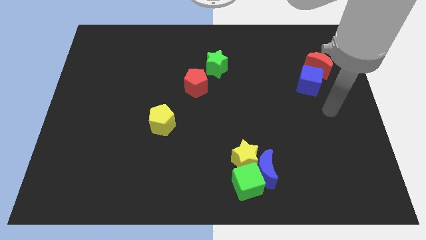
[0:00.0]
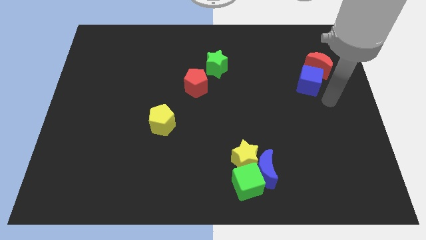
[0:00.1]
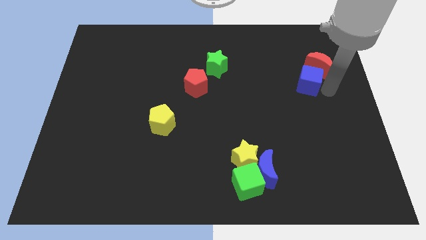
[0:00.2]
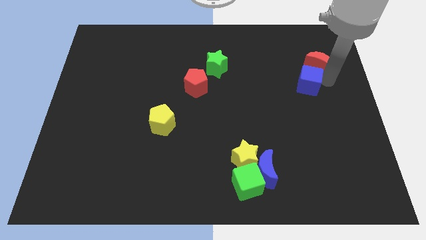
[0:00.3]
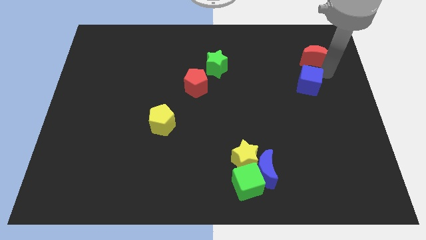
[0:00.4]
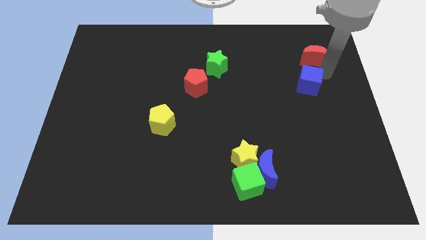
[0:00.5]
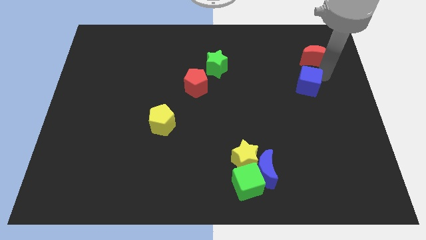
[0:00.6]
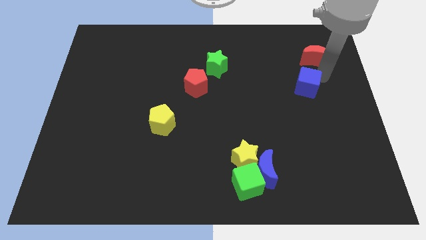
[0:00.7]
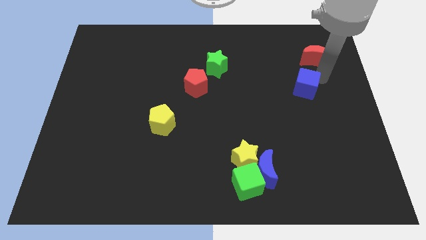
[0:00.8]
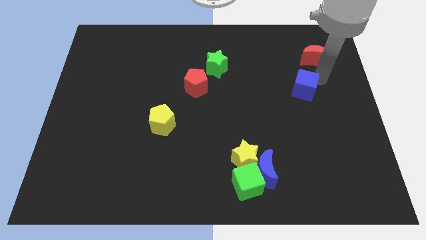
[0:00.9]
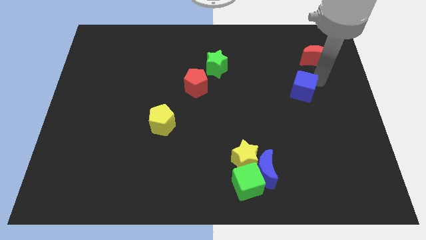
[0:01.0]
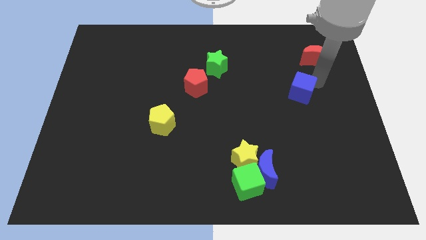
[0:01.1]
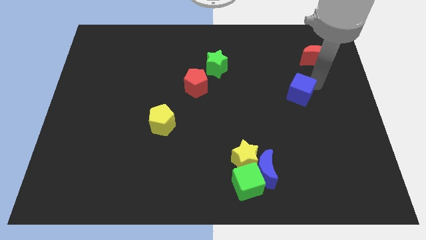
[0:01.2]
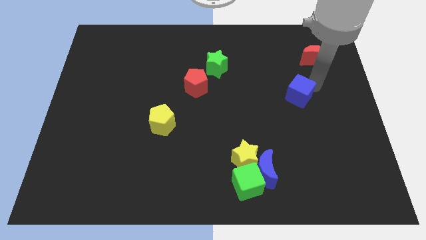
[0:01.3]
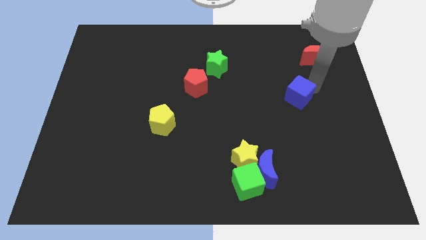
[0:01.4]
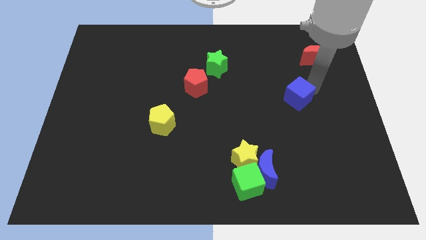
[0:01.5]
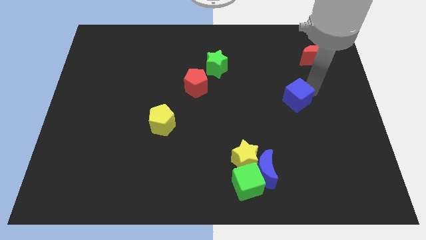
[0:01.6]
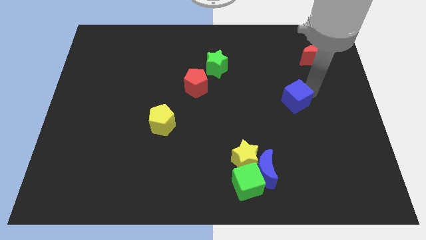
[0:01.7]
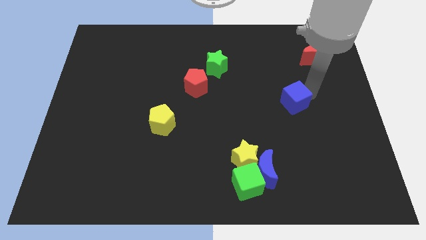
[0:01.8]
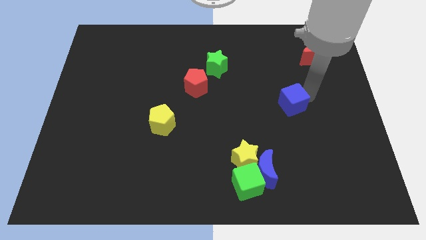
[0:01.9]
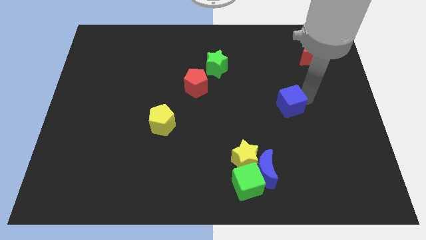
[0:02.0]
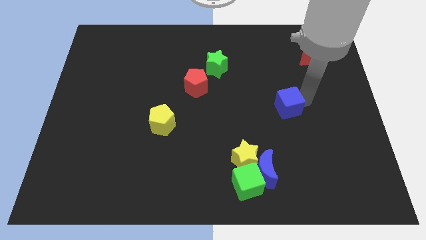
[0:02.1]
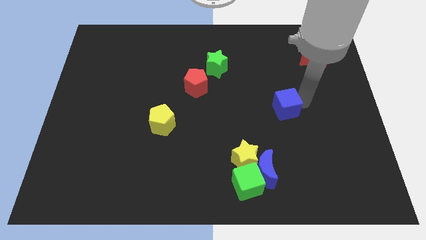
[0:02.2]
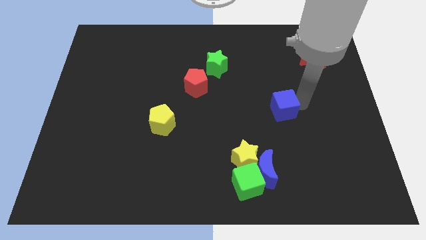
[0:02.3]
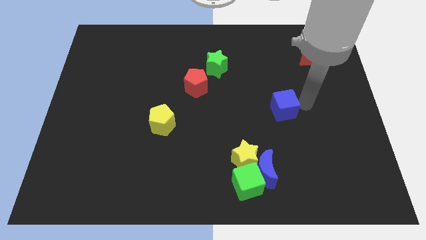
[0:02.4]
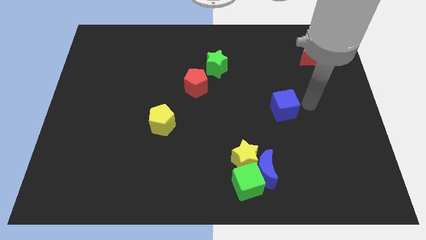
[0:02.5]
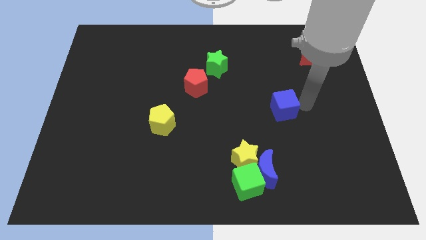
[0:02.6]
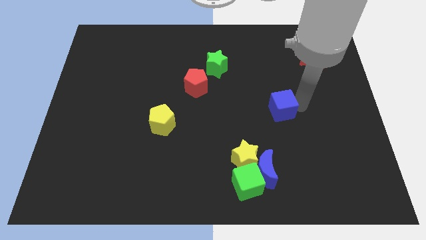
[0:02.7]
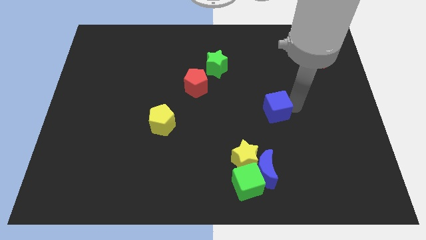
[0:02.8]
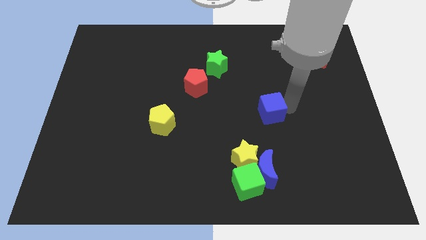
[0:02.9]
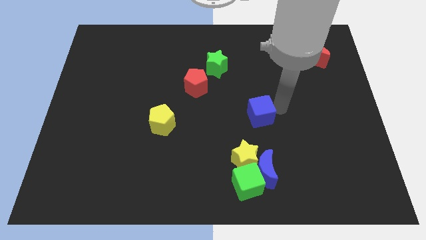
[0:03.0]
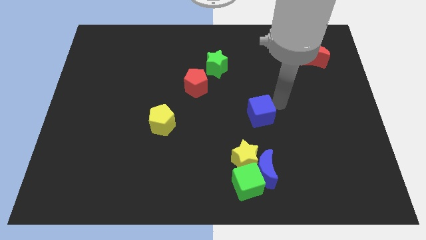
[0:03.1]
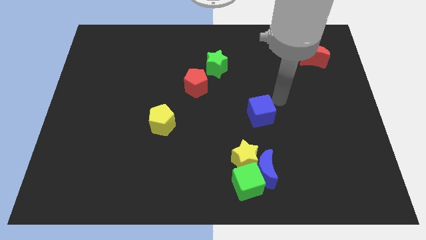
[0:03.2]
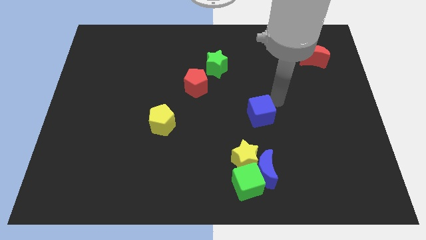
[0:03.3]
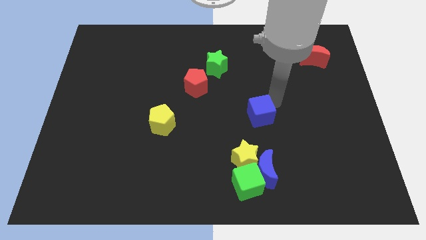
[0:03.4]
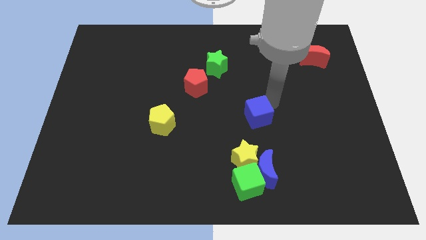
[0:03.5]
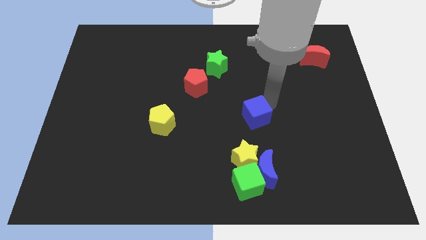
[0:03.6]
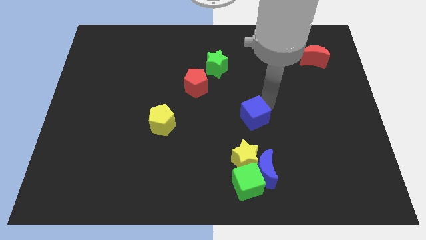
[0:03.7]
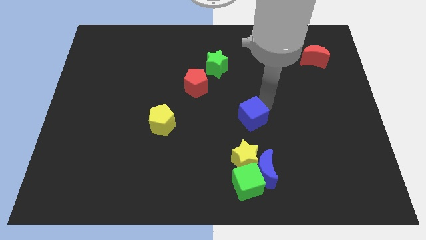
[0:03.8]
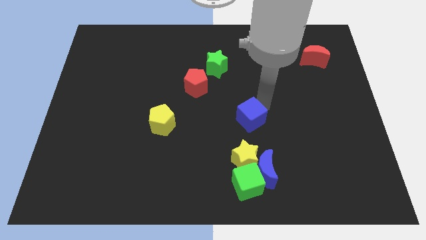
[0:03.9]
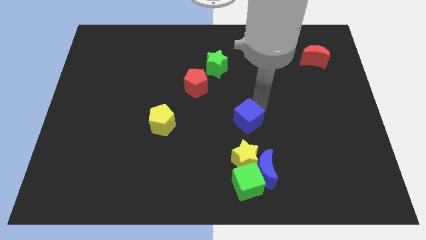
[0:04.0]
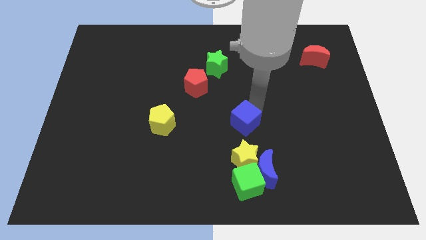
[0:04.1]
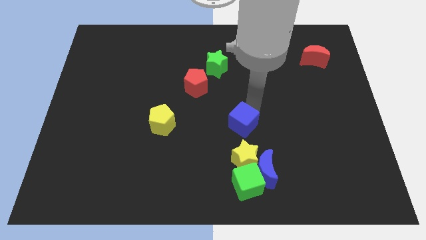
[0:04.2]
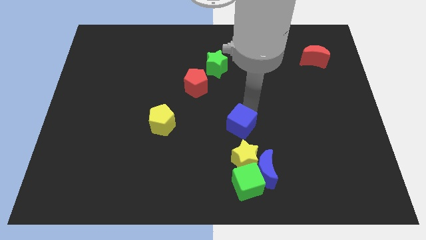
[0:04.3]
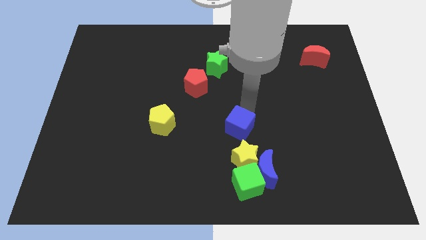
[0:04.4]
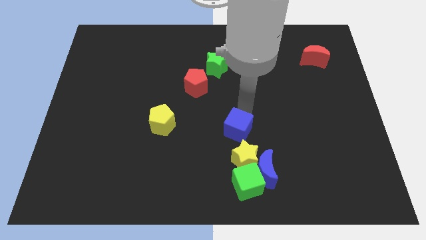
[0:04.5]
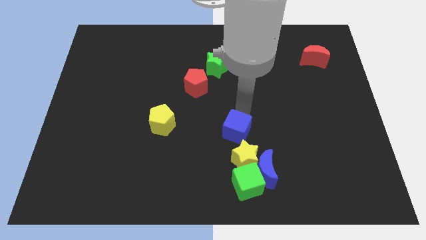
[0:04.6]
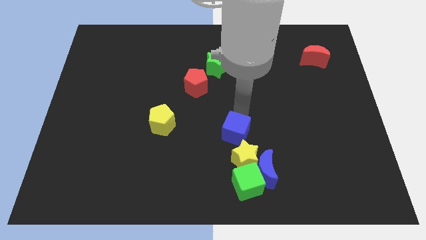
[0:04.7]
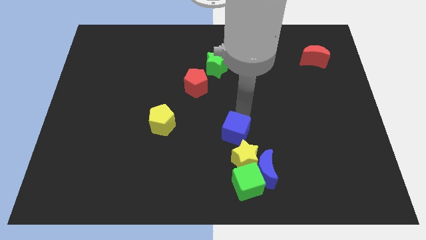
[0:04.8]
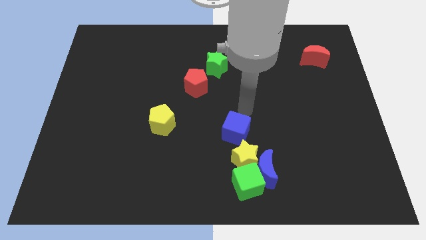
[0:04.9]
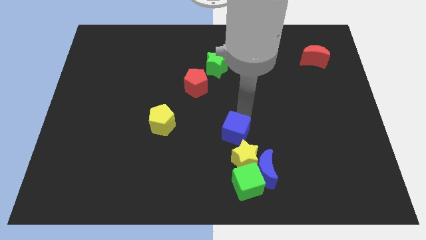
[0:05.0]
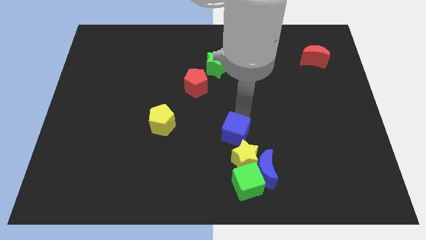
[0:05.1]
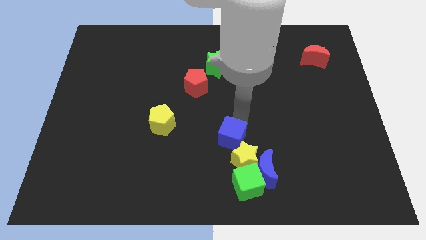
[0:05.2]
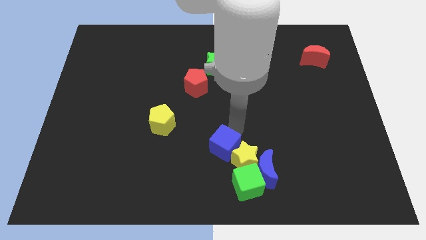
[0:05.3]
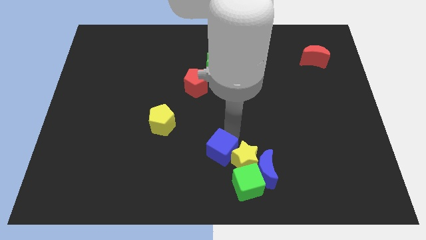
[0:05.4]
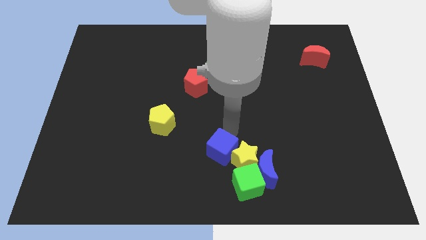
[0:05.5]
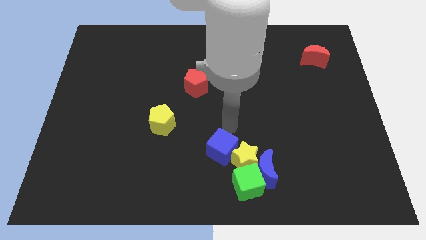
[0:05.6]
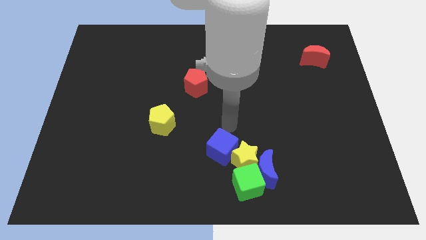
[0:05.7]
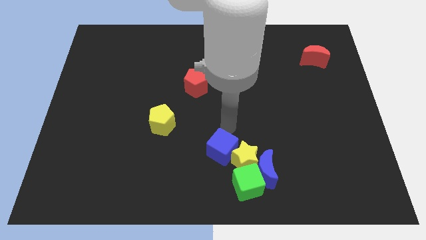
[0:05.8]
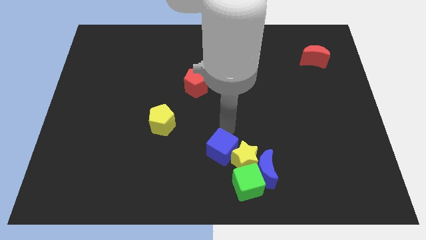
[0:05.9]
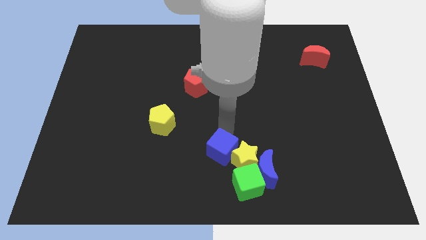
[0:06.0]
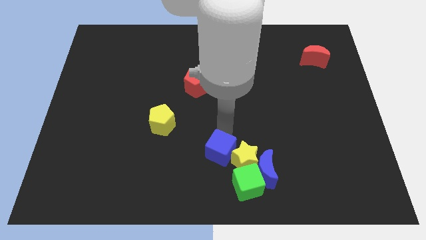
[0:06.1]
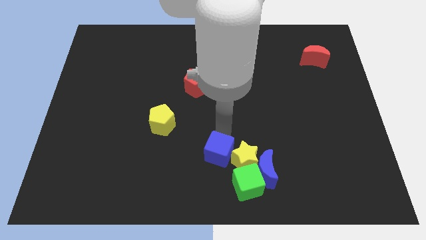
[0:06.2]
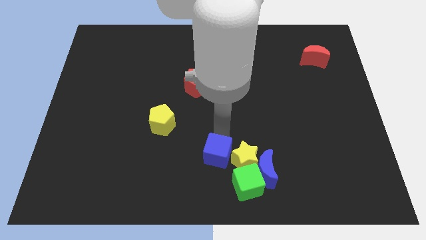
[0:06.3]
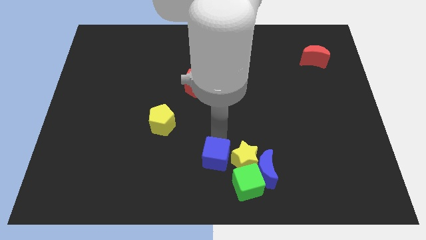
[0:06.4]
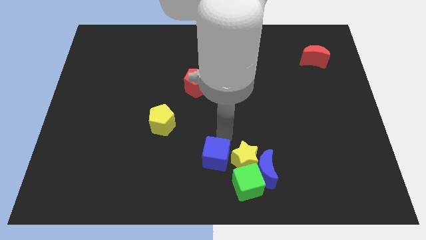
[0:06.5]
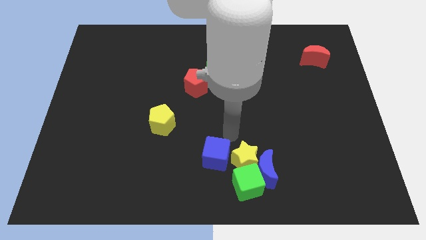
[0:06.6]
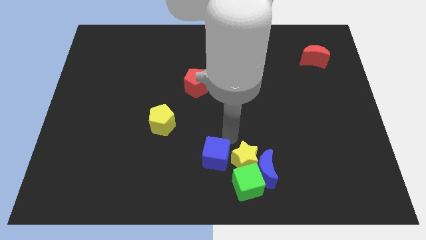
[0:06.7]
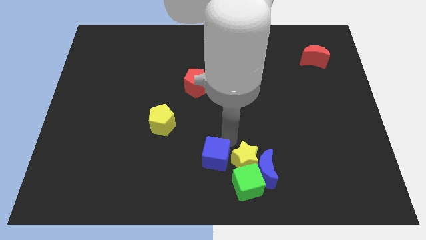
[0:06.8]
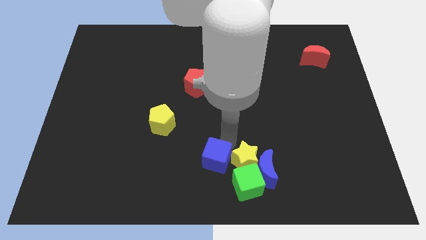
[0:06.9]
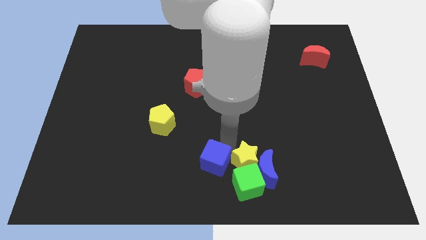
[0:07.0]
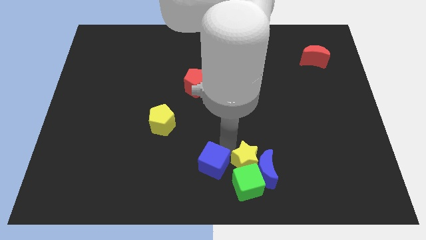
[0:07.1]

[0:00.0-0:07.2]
move the blue cube left of the green cube
